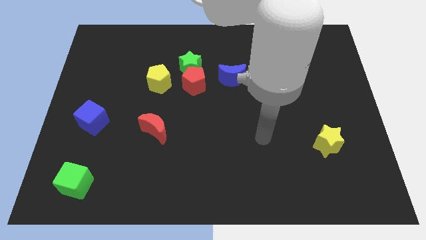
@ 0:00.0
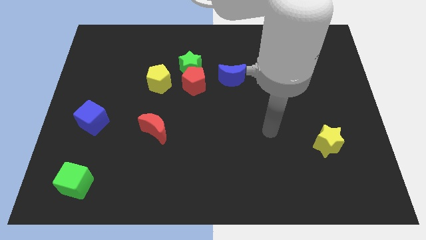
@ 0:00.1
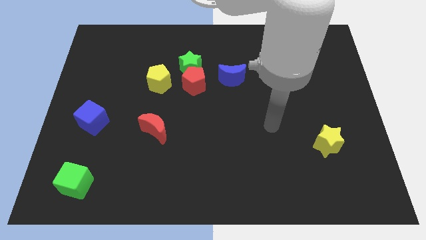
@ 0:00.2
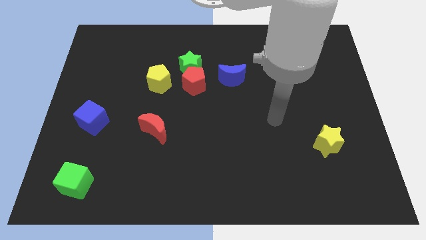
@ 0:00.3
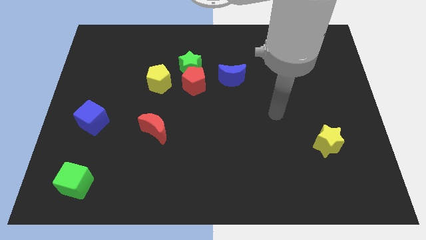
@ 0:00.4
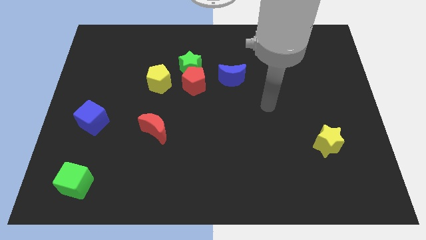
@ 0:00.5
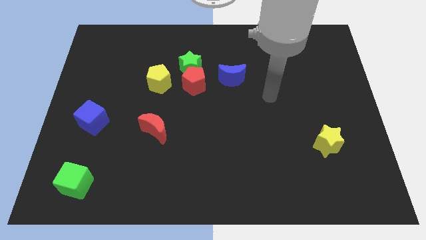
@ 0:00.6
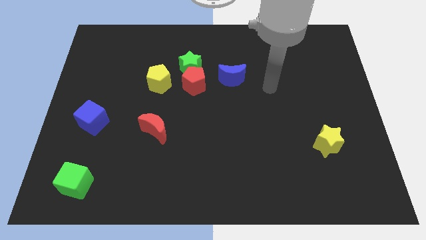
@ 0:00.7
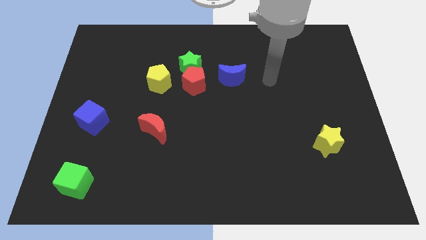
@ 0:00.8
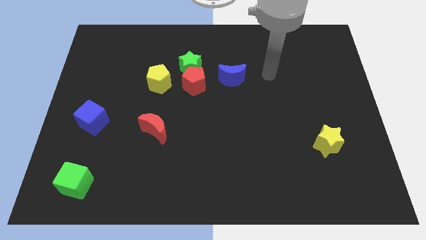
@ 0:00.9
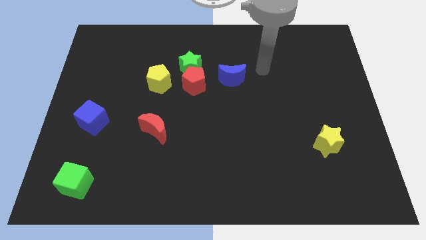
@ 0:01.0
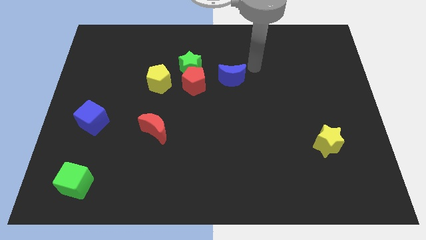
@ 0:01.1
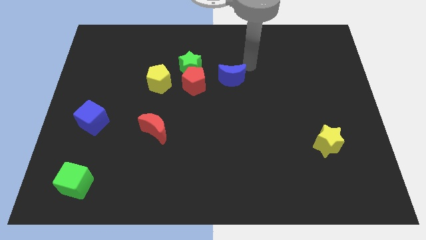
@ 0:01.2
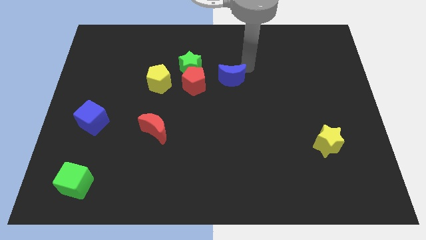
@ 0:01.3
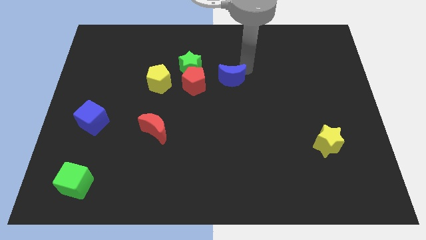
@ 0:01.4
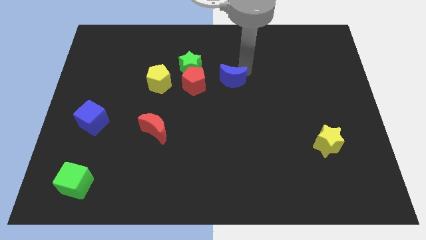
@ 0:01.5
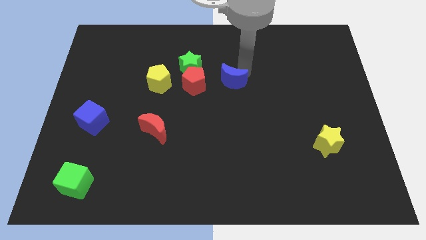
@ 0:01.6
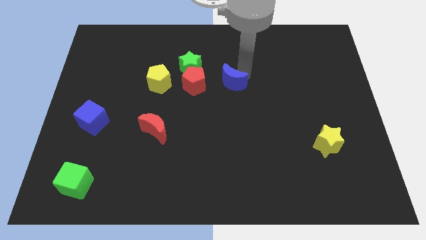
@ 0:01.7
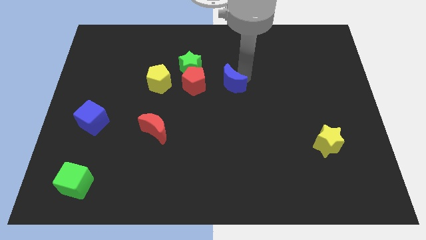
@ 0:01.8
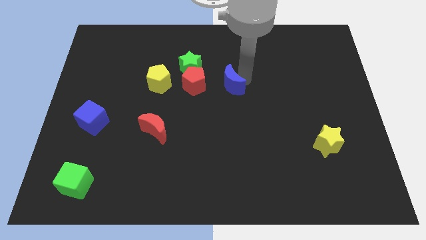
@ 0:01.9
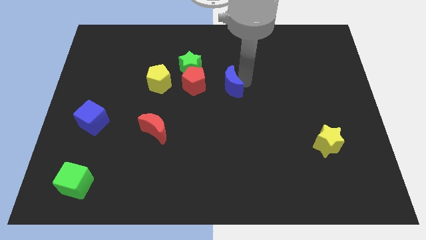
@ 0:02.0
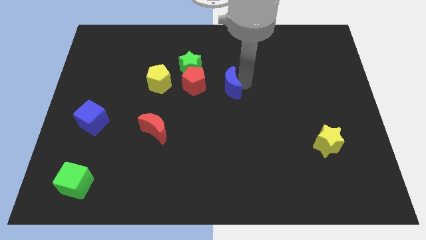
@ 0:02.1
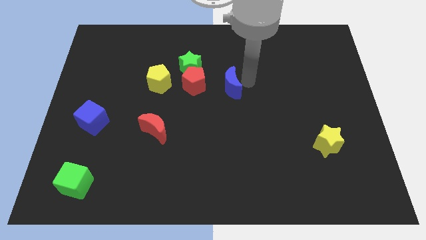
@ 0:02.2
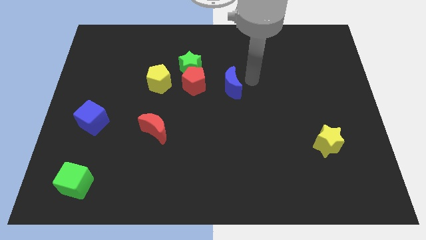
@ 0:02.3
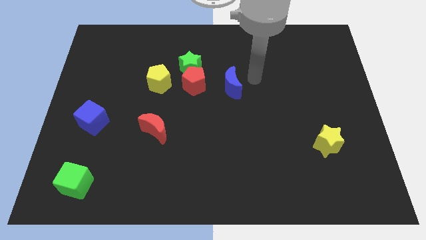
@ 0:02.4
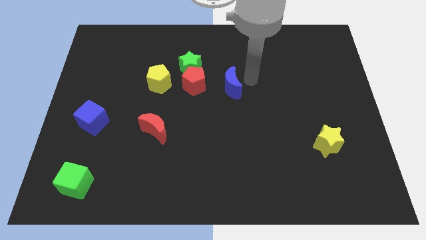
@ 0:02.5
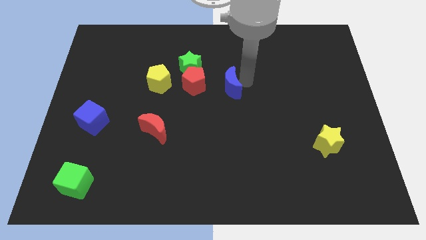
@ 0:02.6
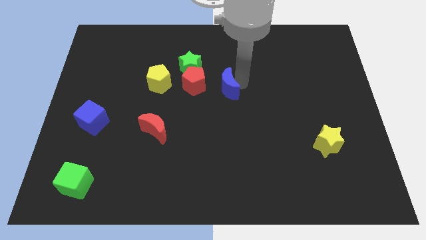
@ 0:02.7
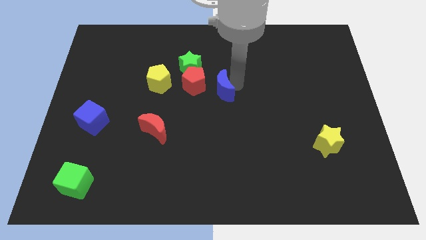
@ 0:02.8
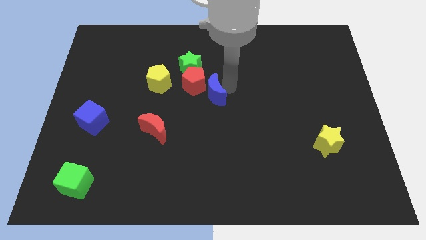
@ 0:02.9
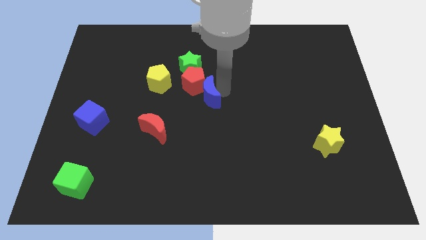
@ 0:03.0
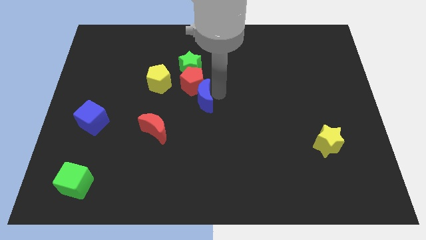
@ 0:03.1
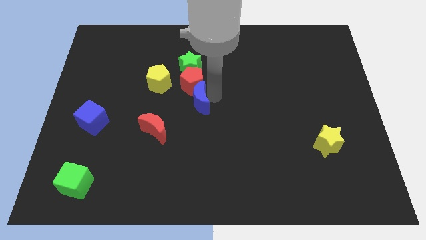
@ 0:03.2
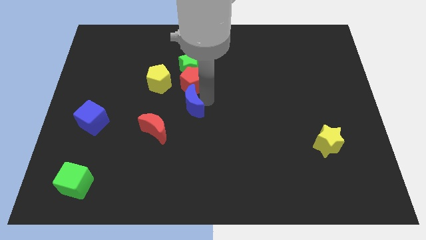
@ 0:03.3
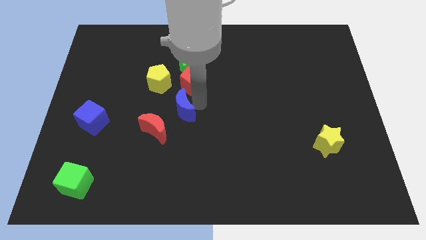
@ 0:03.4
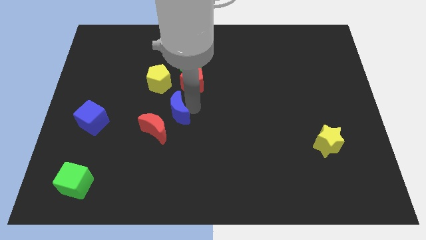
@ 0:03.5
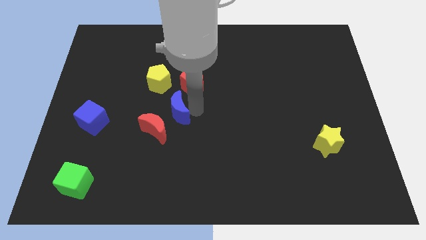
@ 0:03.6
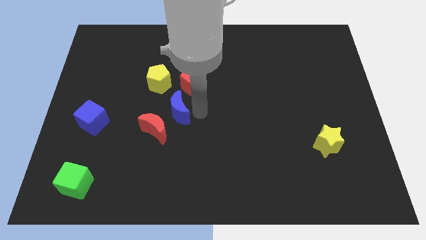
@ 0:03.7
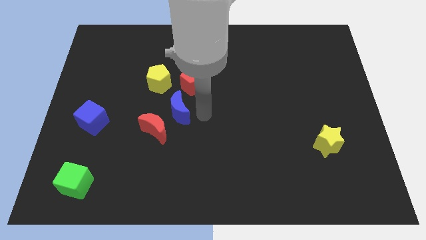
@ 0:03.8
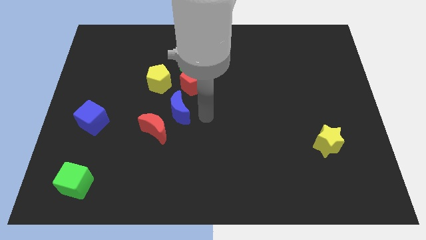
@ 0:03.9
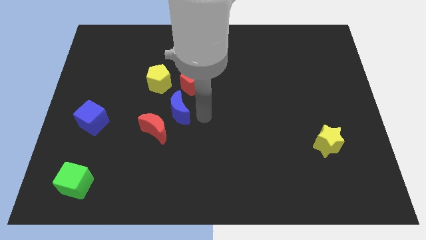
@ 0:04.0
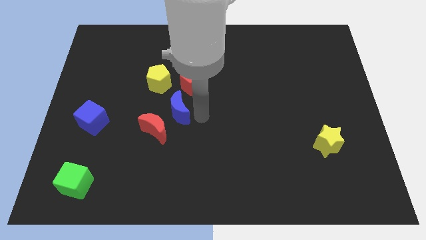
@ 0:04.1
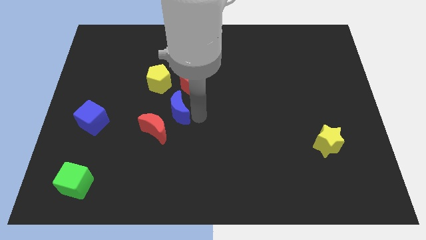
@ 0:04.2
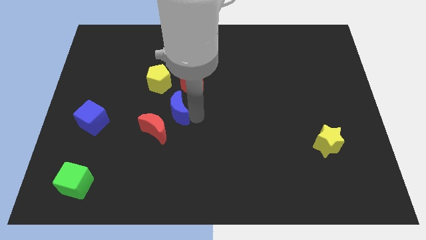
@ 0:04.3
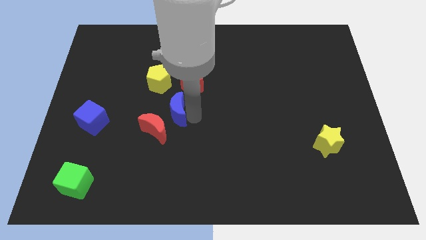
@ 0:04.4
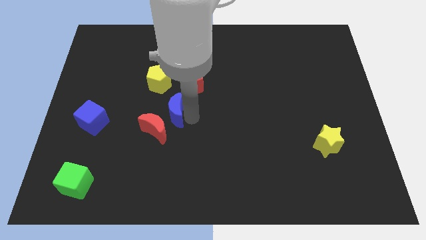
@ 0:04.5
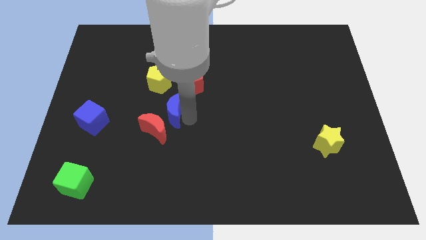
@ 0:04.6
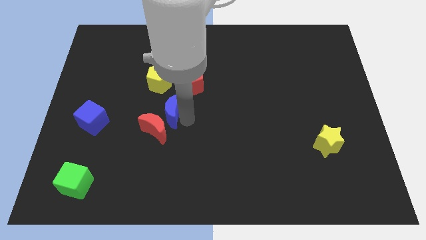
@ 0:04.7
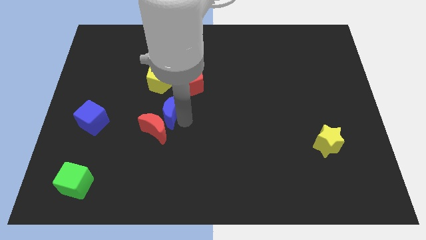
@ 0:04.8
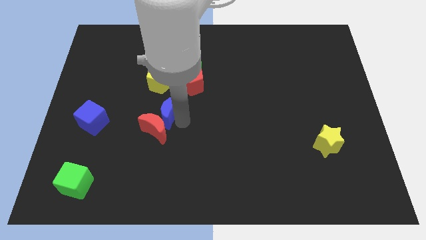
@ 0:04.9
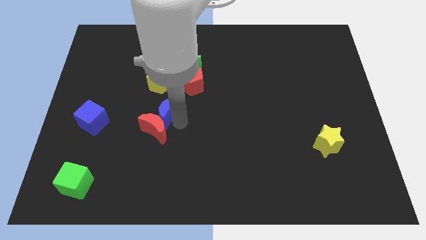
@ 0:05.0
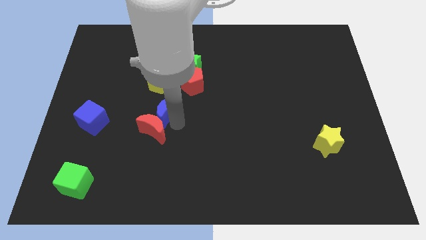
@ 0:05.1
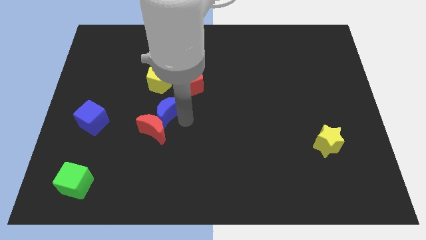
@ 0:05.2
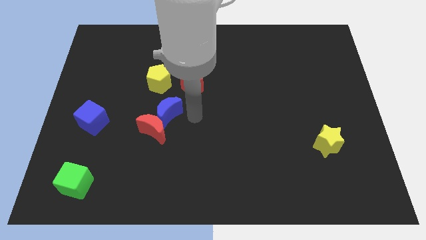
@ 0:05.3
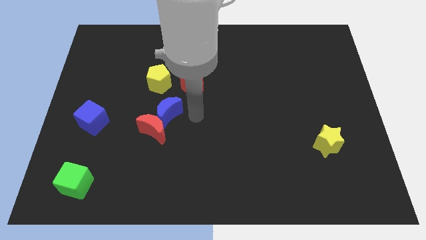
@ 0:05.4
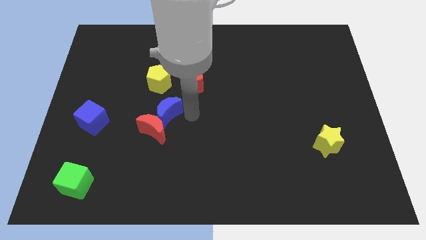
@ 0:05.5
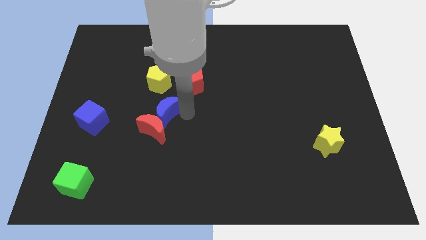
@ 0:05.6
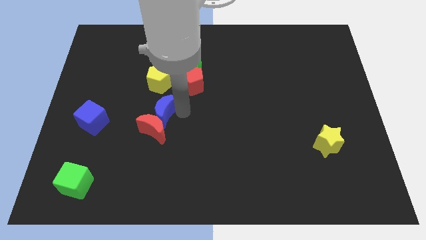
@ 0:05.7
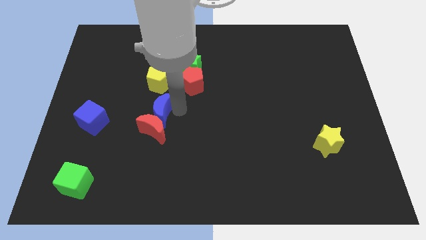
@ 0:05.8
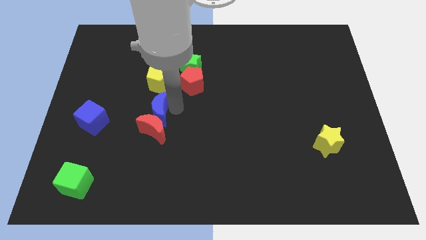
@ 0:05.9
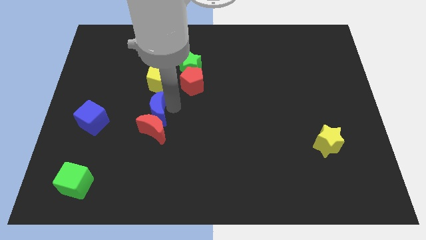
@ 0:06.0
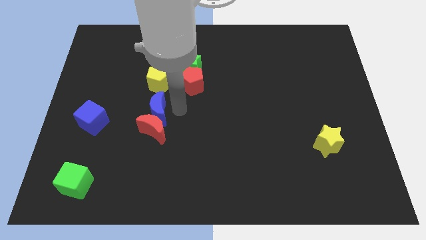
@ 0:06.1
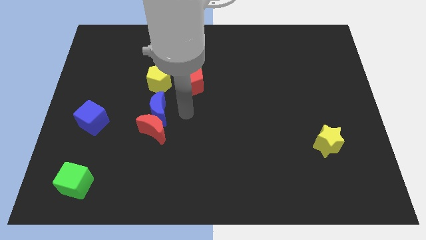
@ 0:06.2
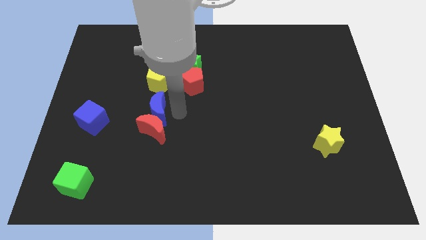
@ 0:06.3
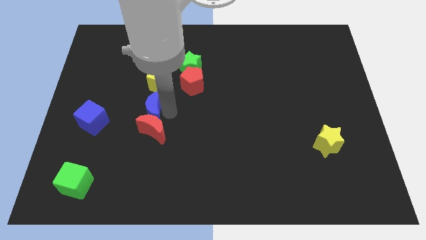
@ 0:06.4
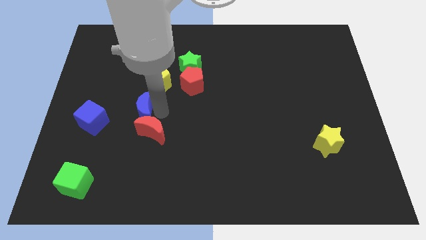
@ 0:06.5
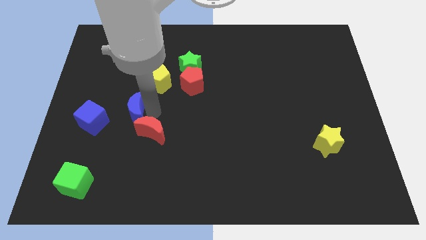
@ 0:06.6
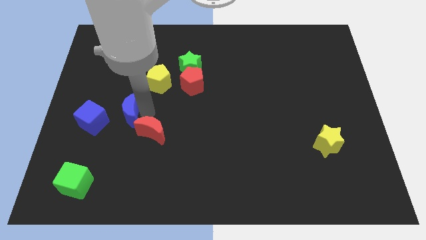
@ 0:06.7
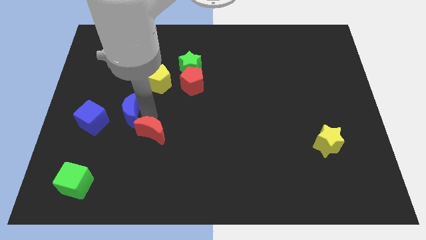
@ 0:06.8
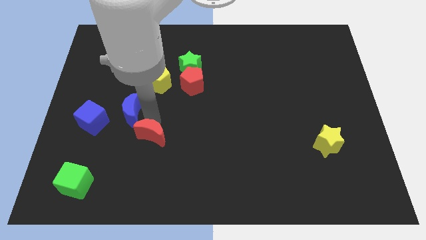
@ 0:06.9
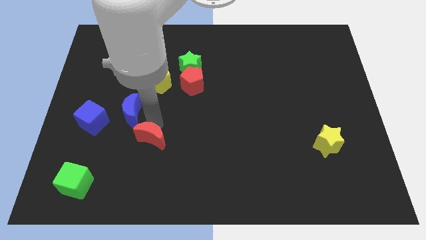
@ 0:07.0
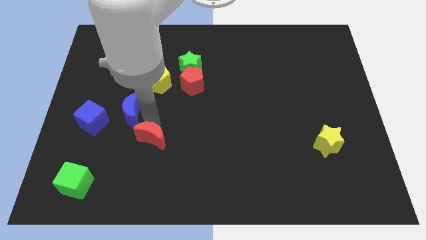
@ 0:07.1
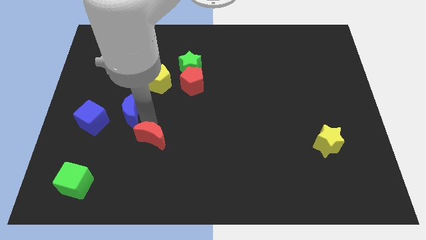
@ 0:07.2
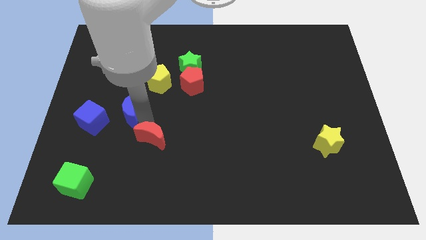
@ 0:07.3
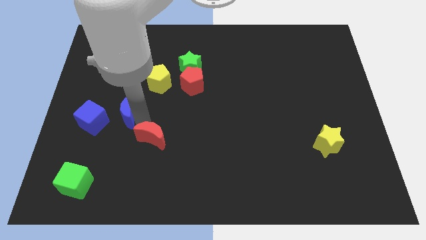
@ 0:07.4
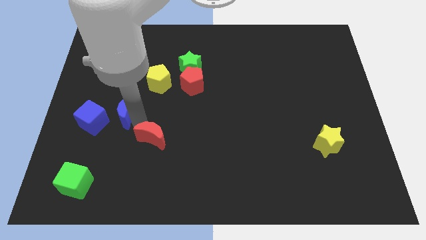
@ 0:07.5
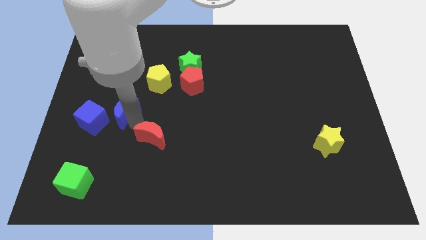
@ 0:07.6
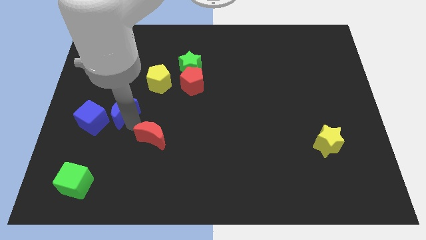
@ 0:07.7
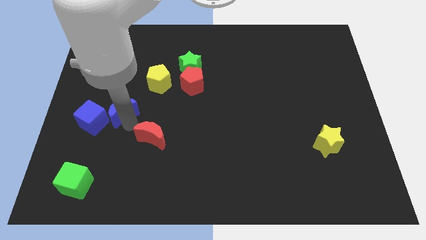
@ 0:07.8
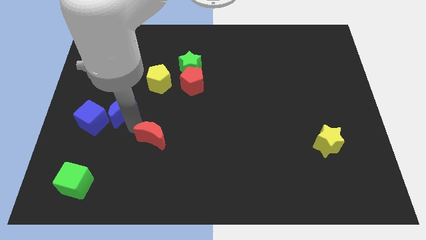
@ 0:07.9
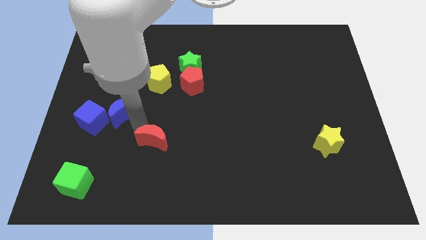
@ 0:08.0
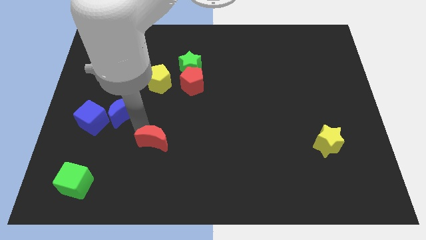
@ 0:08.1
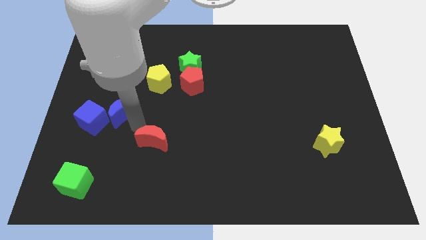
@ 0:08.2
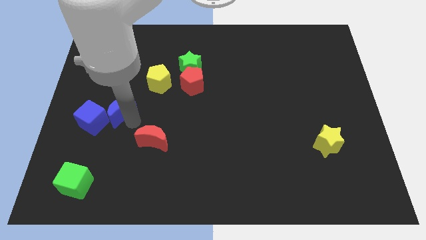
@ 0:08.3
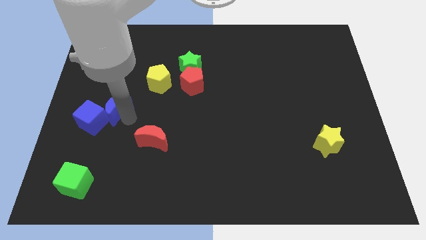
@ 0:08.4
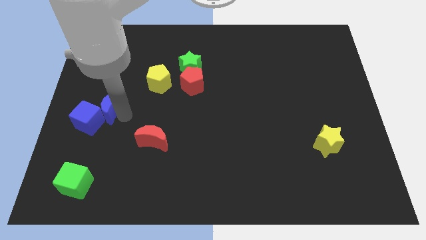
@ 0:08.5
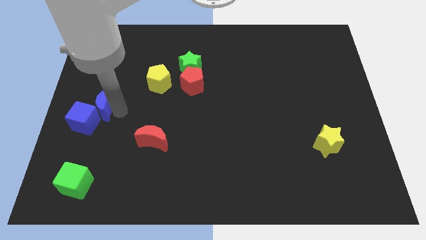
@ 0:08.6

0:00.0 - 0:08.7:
put the blue moon to the center left
